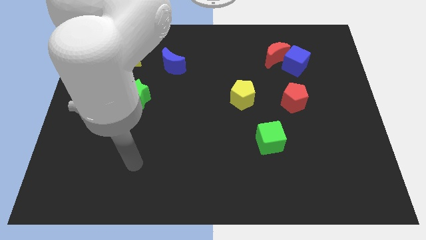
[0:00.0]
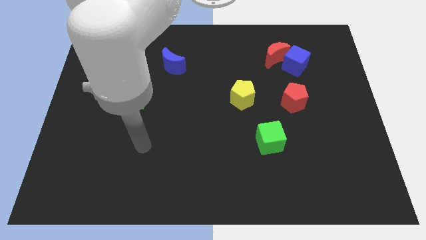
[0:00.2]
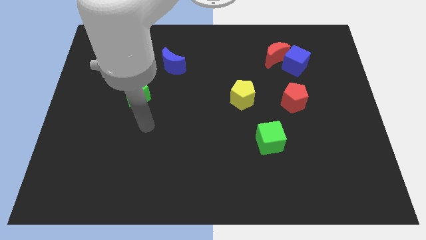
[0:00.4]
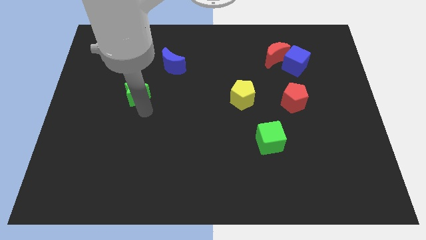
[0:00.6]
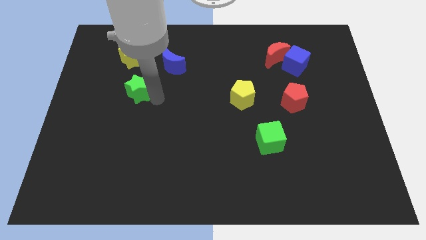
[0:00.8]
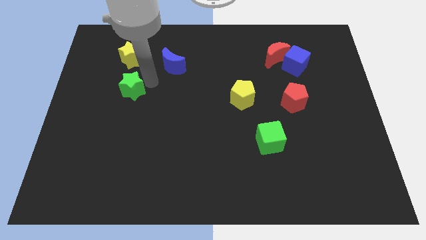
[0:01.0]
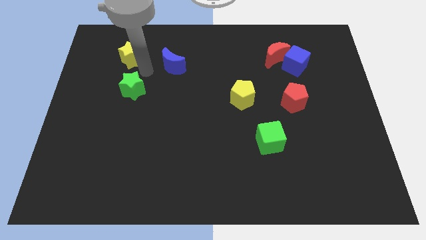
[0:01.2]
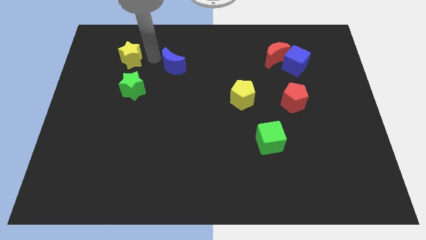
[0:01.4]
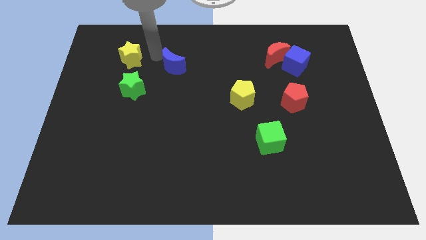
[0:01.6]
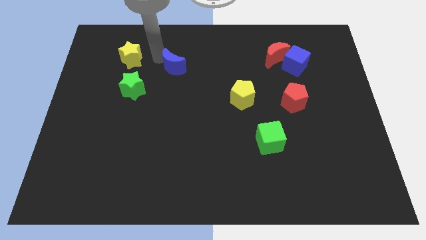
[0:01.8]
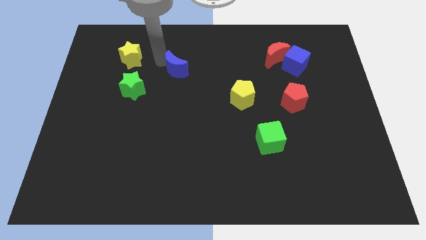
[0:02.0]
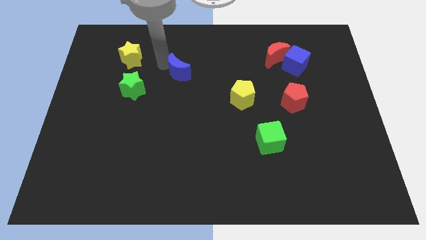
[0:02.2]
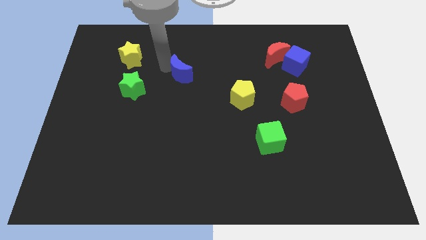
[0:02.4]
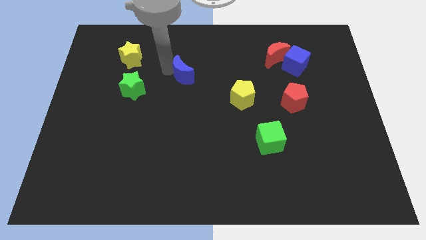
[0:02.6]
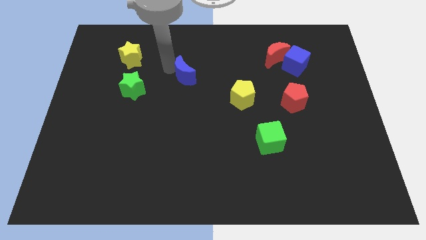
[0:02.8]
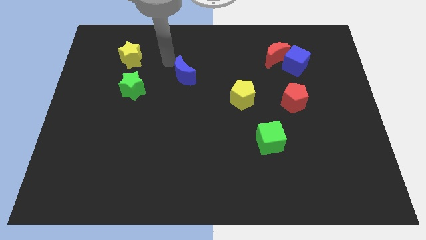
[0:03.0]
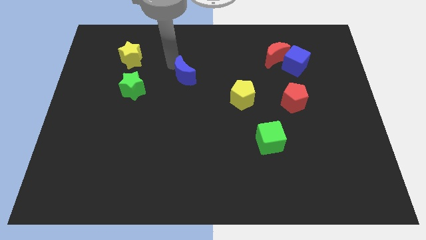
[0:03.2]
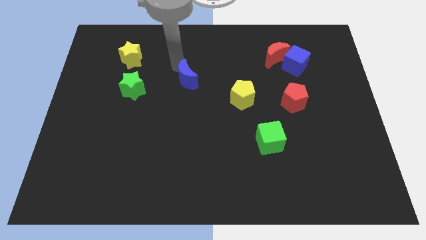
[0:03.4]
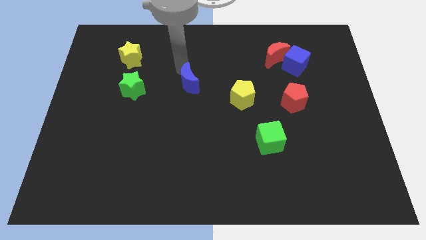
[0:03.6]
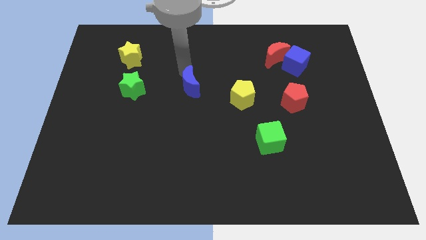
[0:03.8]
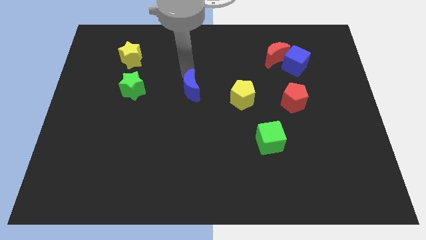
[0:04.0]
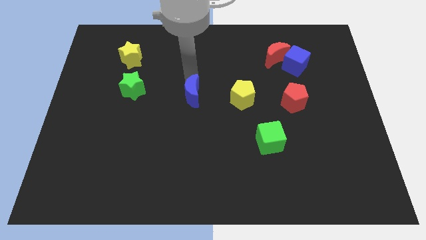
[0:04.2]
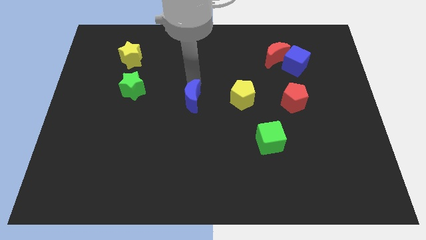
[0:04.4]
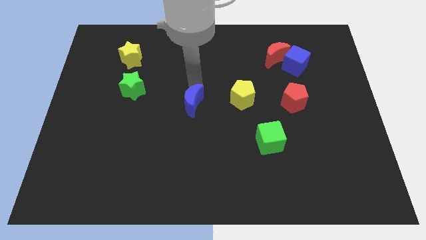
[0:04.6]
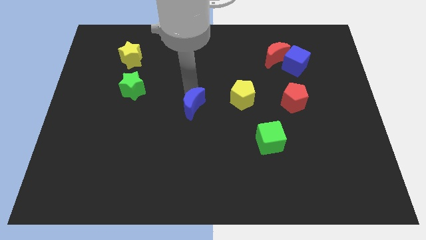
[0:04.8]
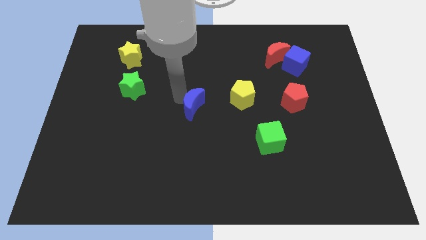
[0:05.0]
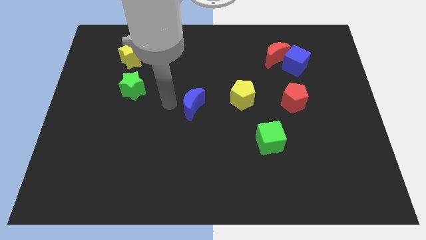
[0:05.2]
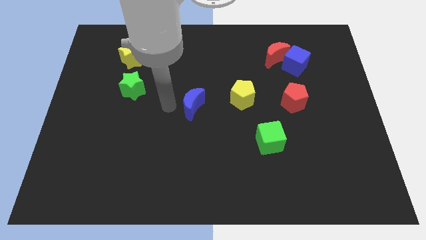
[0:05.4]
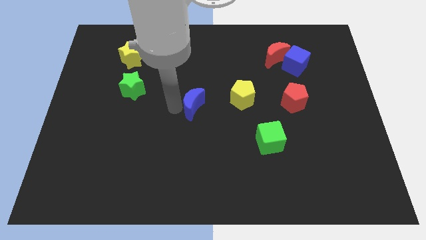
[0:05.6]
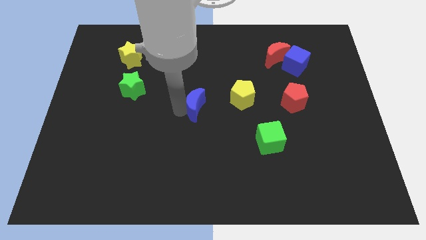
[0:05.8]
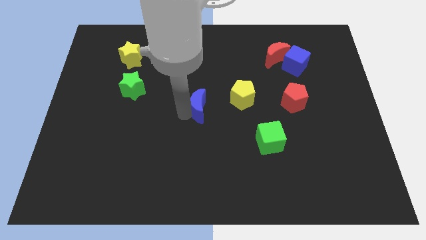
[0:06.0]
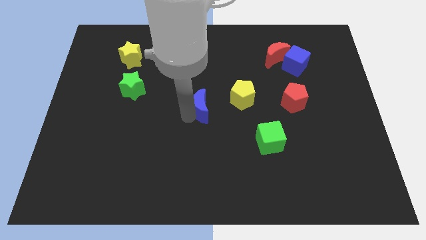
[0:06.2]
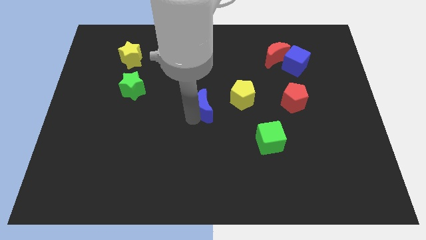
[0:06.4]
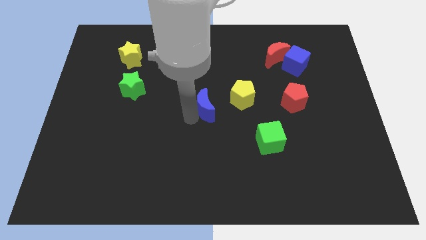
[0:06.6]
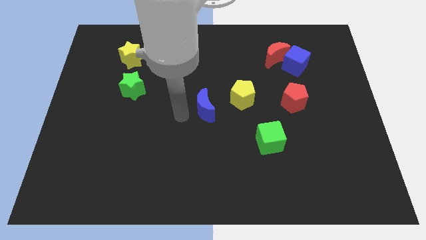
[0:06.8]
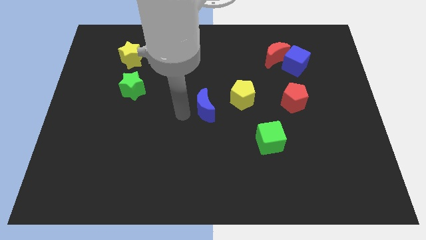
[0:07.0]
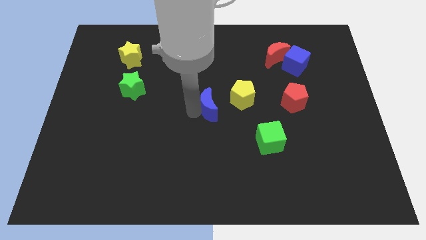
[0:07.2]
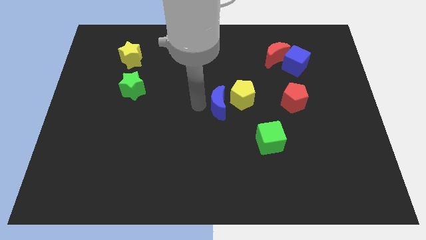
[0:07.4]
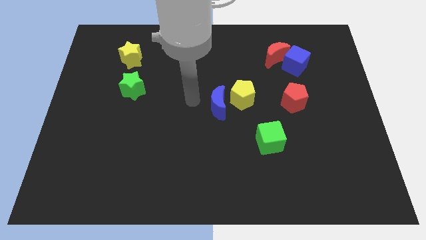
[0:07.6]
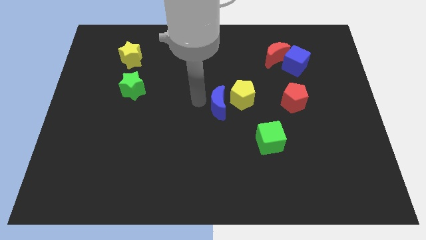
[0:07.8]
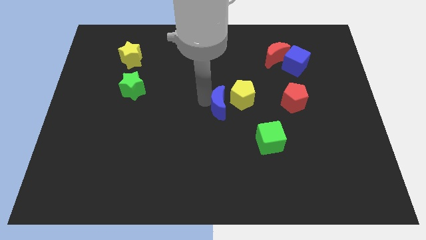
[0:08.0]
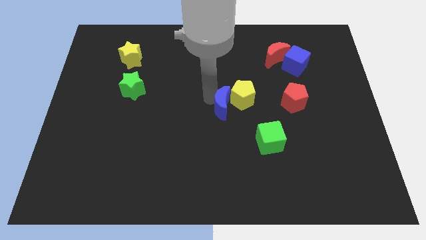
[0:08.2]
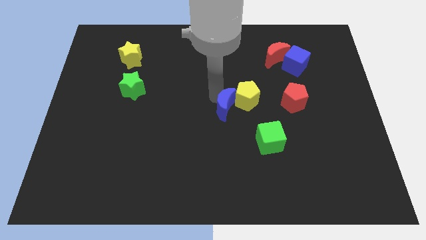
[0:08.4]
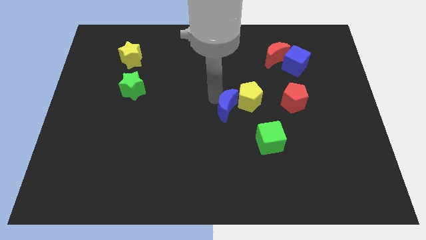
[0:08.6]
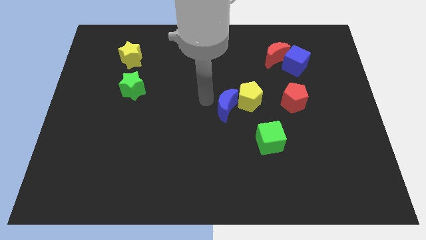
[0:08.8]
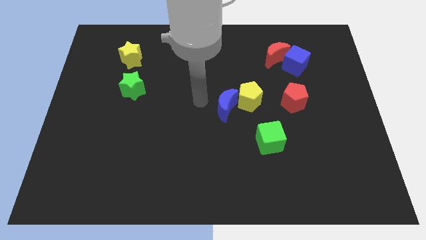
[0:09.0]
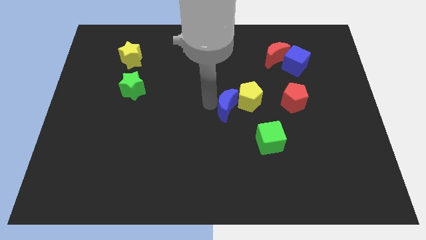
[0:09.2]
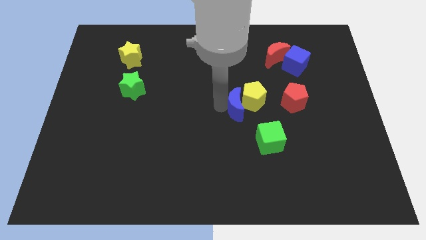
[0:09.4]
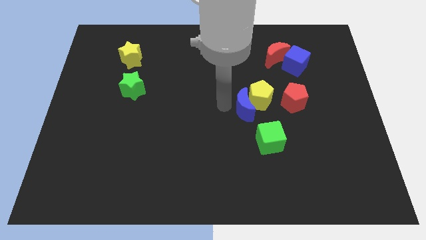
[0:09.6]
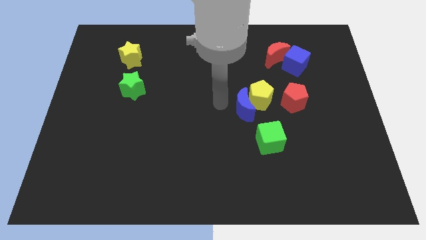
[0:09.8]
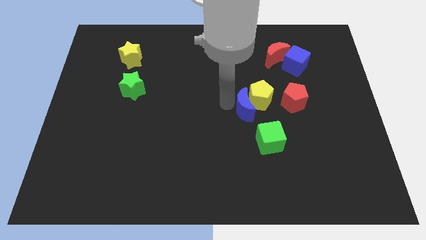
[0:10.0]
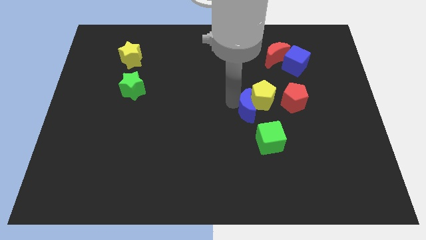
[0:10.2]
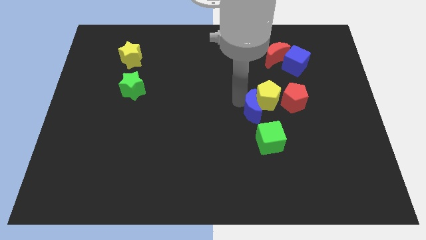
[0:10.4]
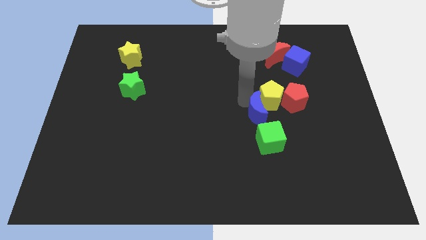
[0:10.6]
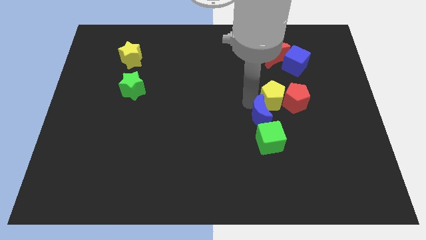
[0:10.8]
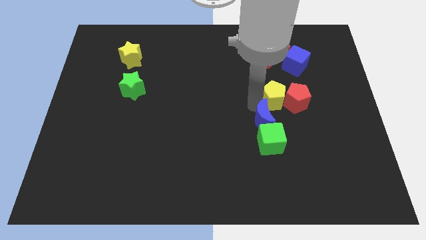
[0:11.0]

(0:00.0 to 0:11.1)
push the blue moon diagonally up and to the right of the green cube

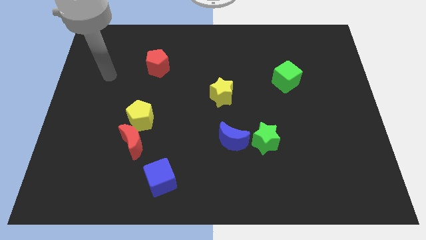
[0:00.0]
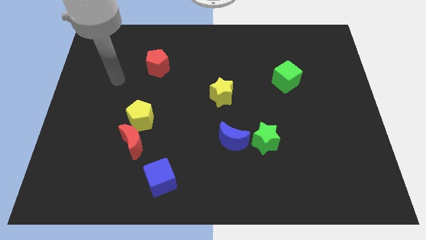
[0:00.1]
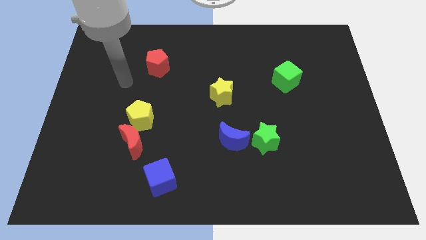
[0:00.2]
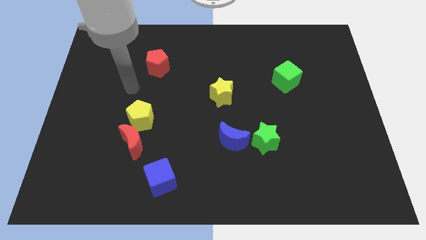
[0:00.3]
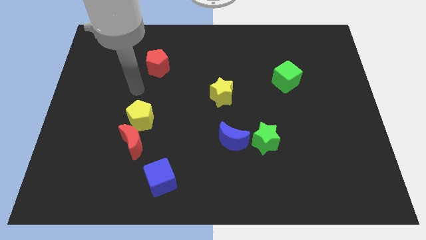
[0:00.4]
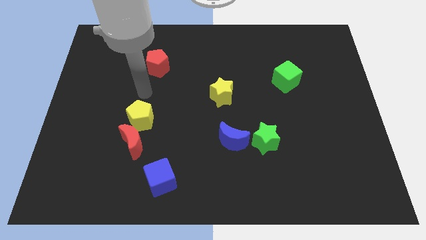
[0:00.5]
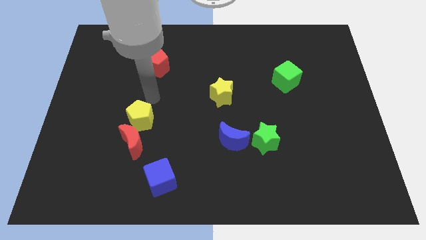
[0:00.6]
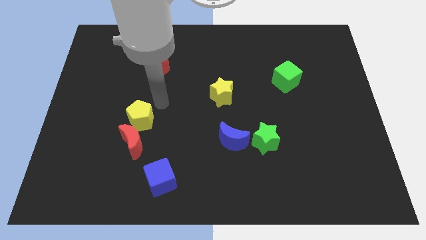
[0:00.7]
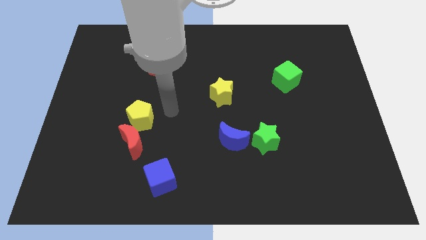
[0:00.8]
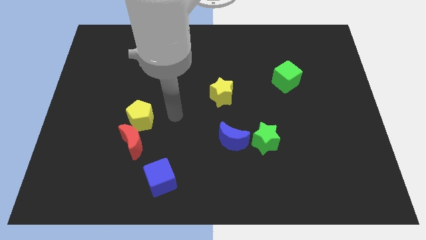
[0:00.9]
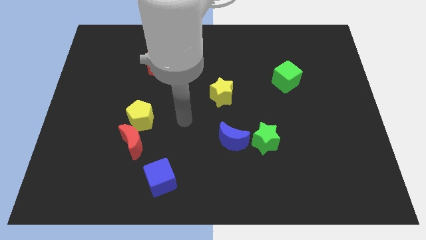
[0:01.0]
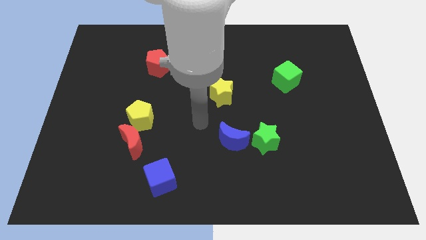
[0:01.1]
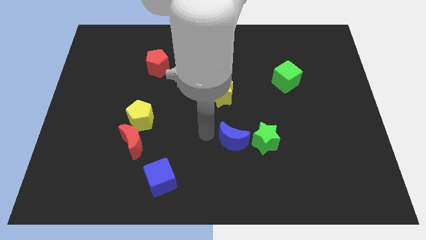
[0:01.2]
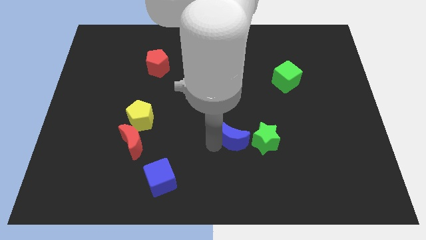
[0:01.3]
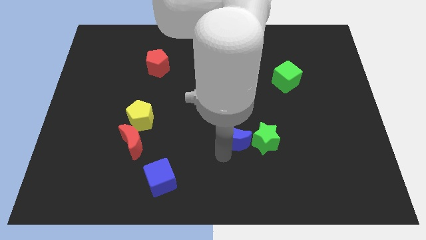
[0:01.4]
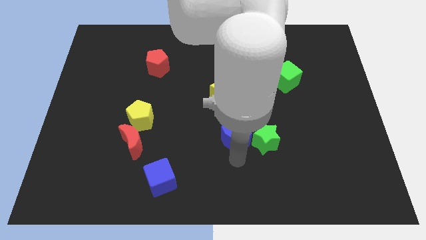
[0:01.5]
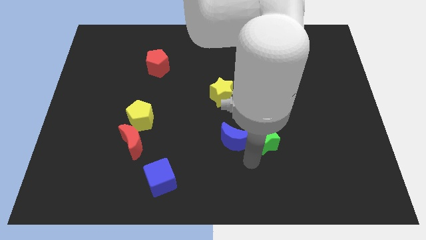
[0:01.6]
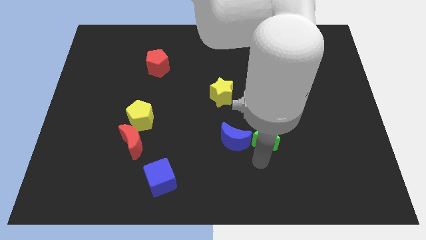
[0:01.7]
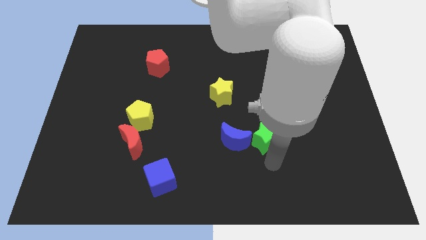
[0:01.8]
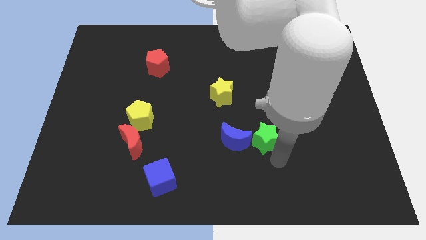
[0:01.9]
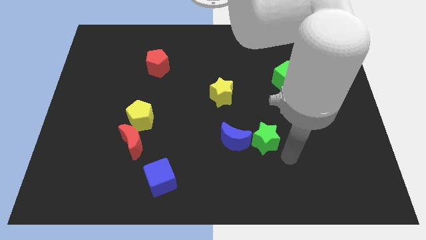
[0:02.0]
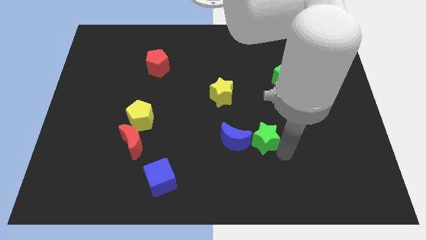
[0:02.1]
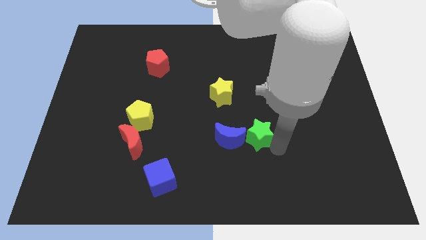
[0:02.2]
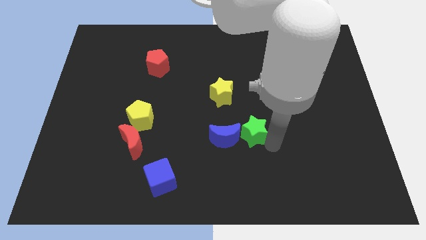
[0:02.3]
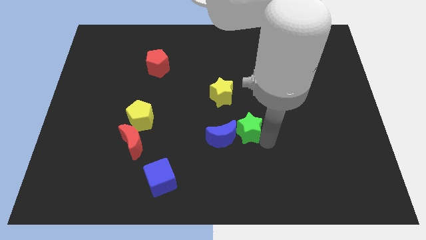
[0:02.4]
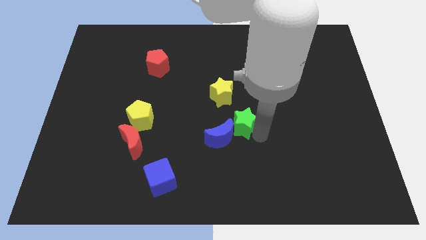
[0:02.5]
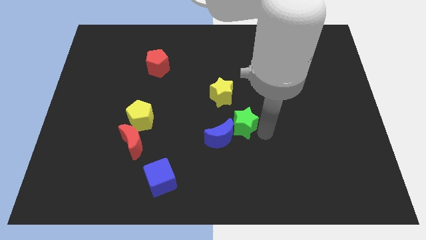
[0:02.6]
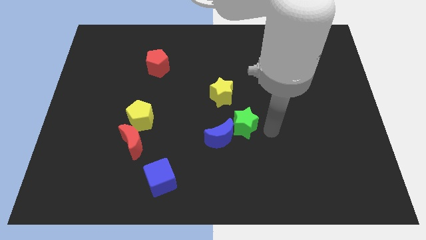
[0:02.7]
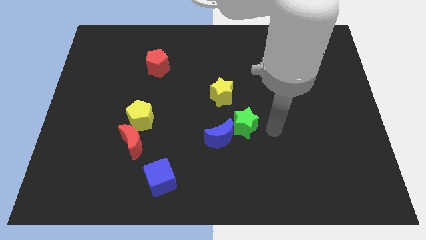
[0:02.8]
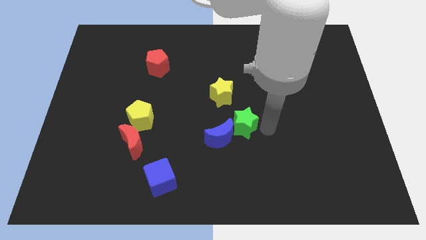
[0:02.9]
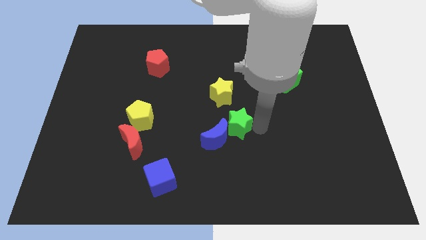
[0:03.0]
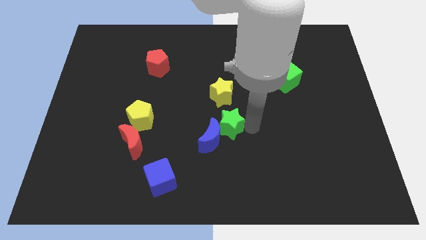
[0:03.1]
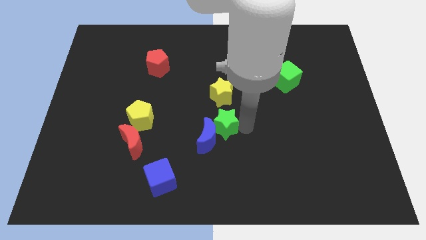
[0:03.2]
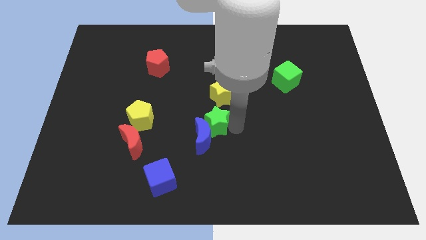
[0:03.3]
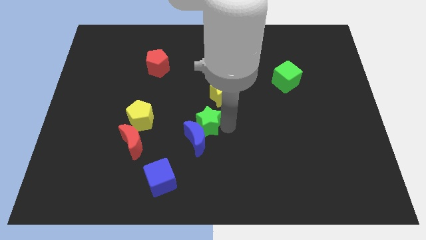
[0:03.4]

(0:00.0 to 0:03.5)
slide the green star right of the yellow pentagon
